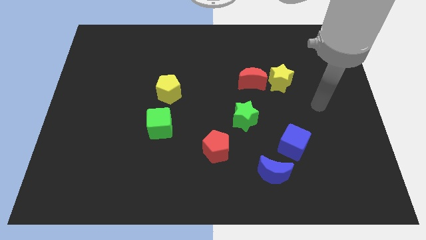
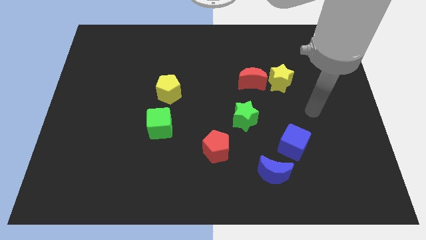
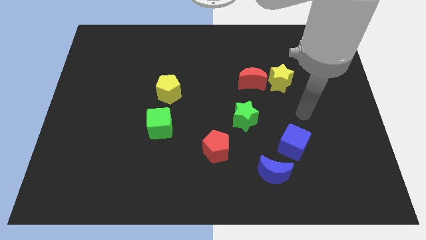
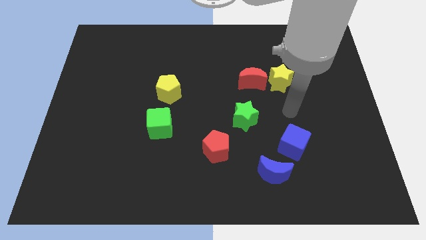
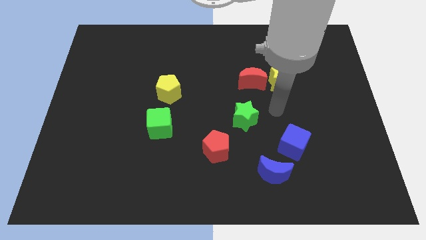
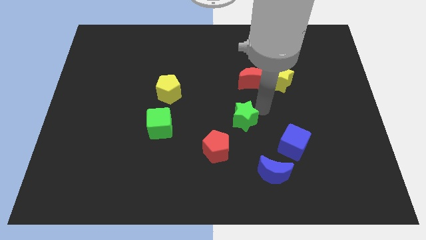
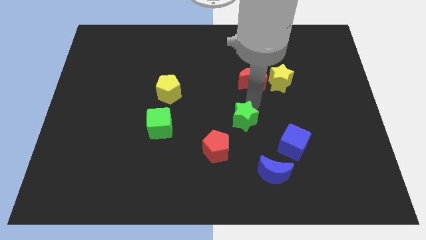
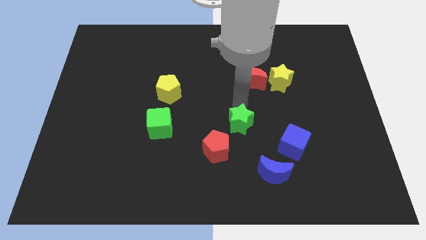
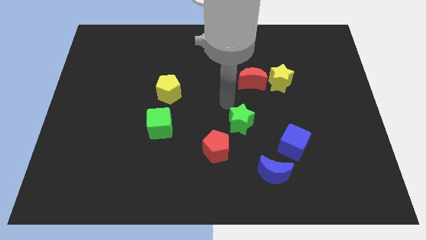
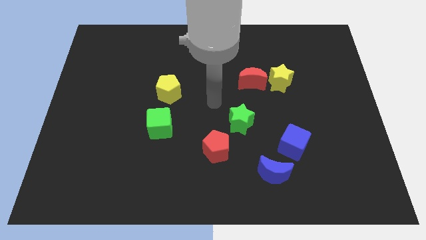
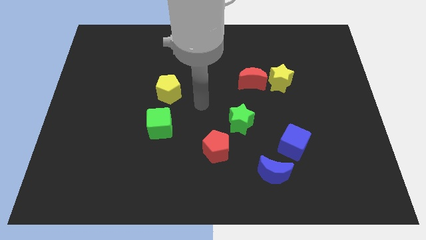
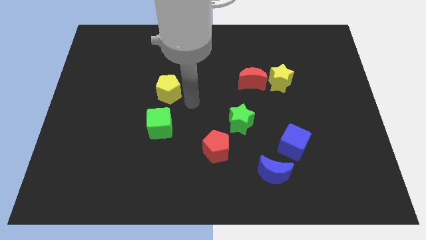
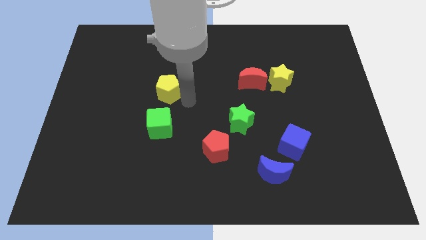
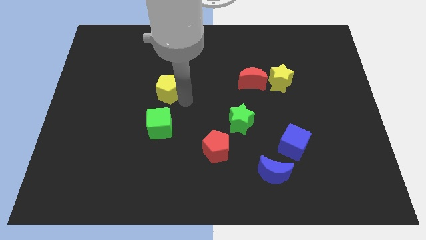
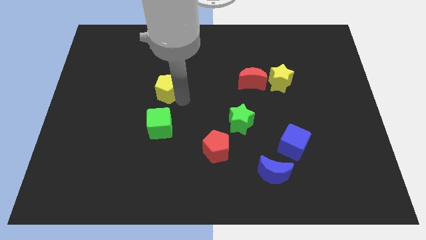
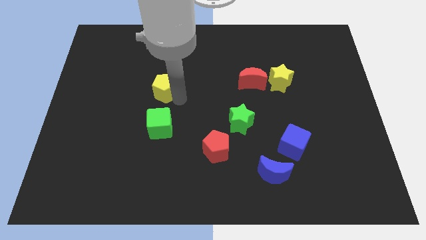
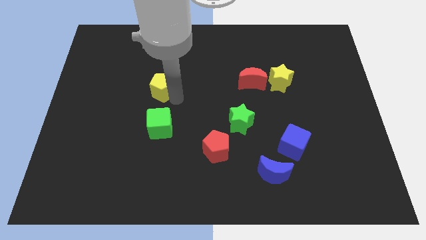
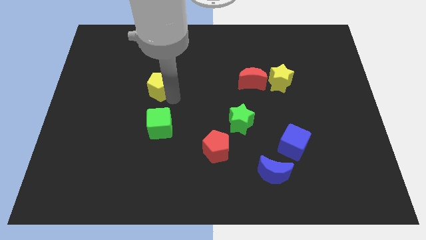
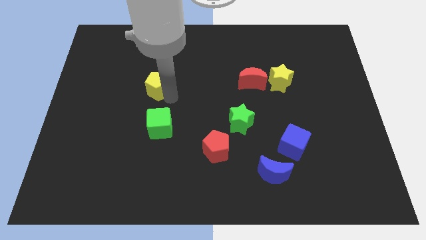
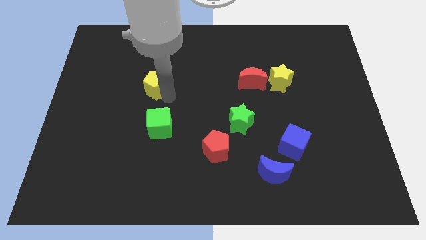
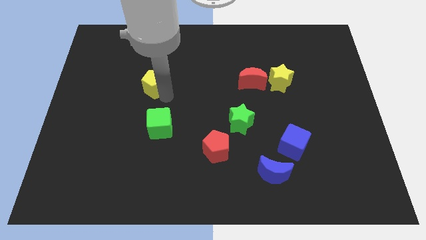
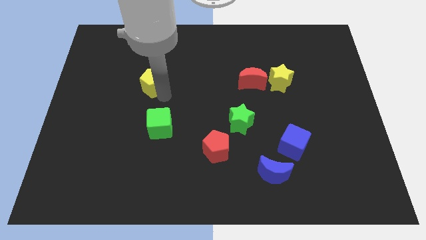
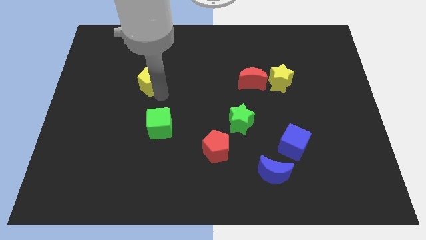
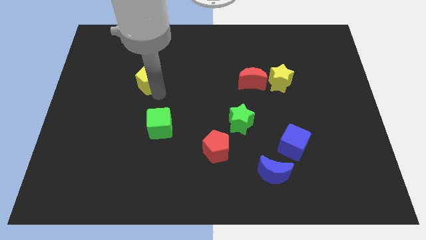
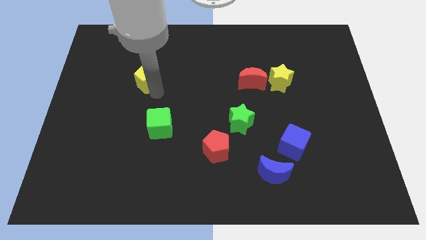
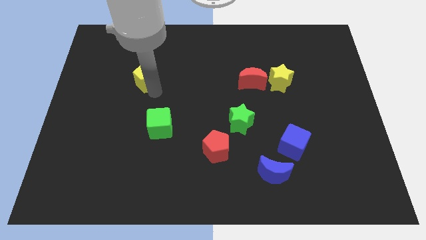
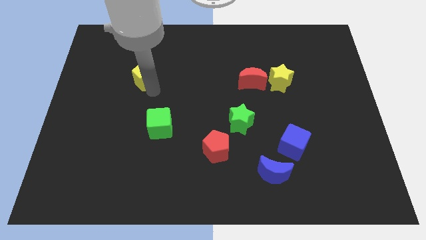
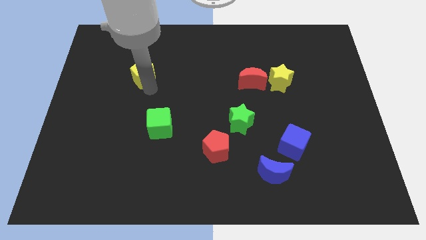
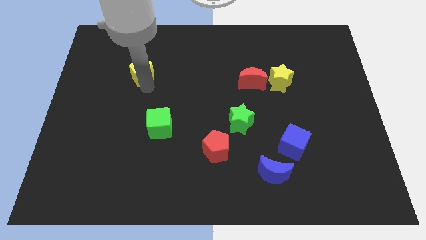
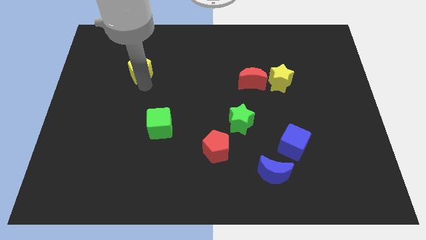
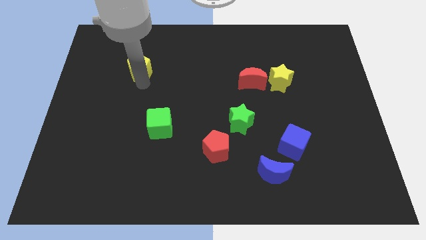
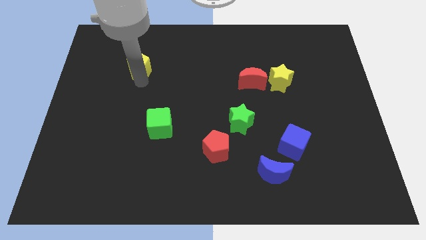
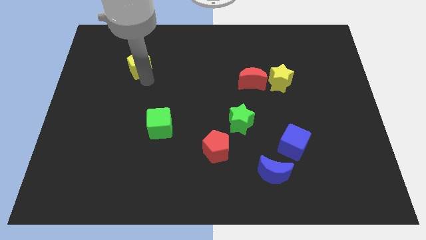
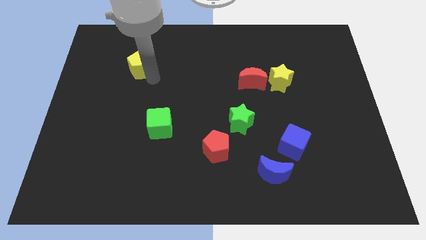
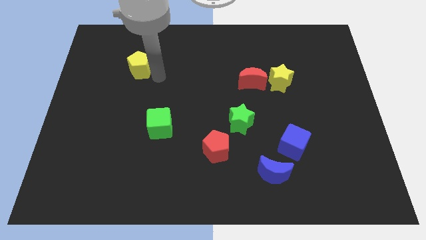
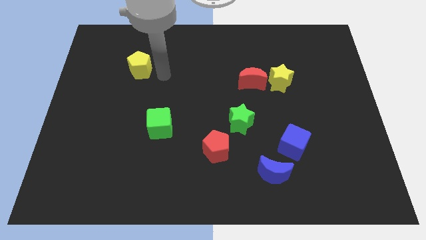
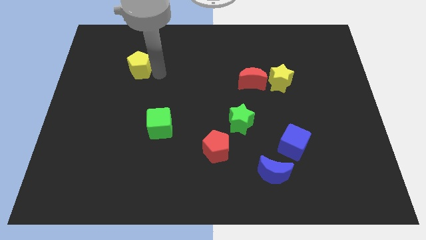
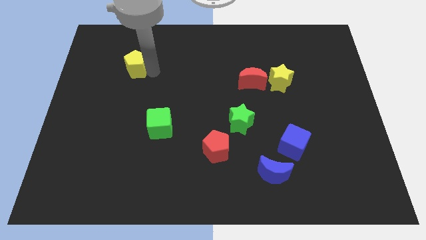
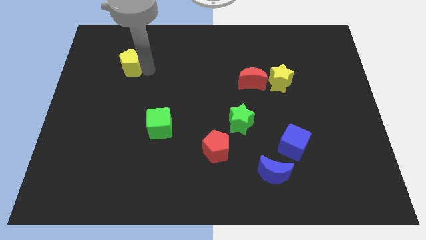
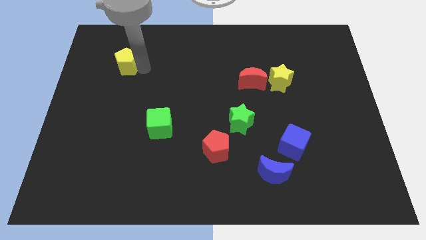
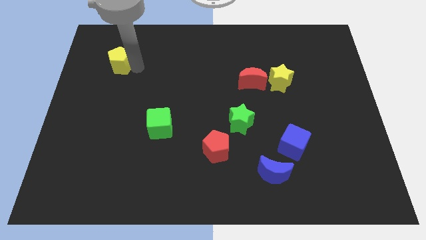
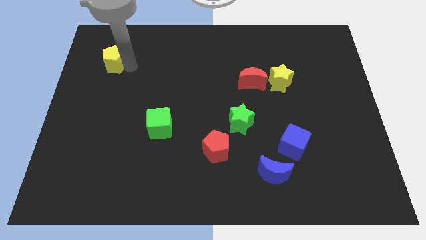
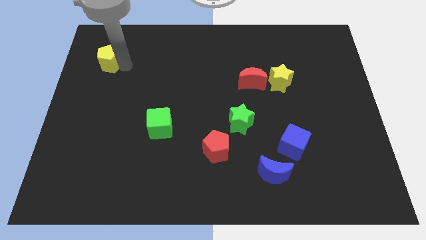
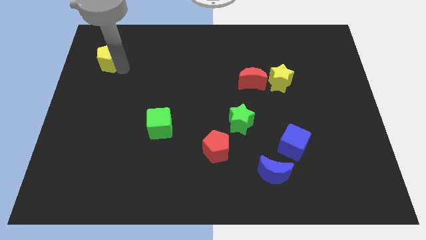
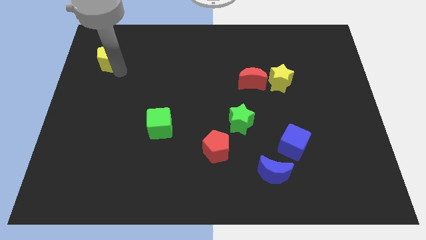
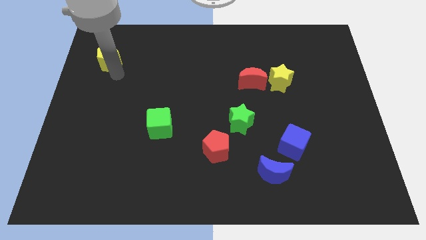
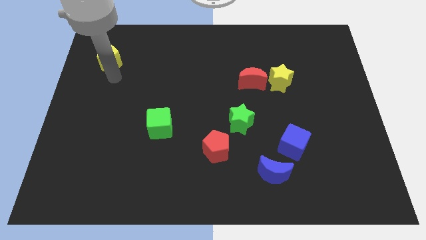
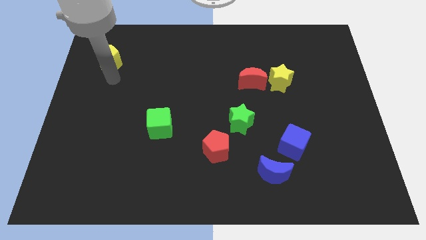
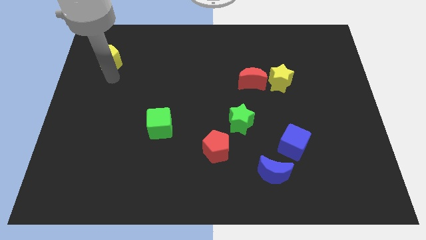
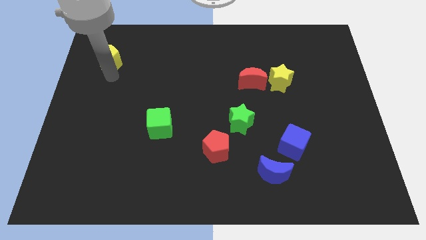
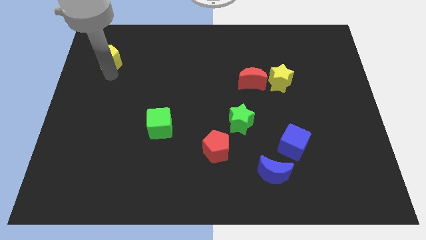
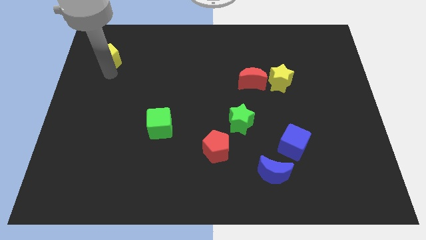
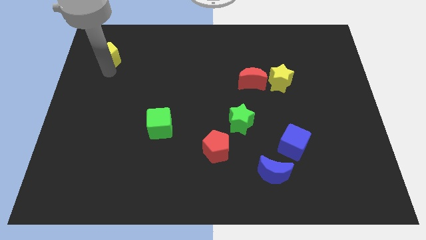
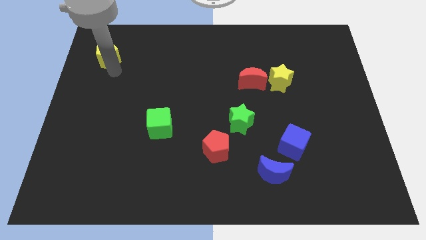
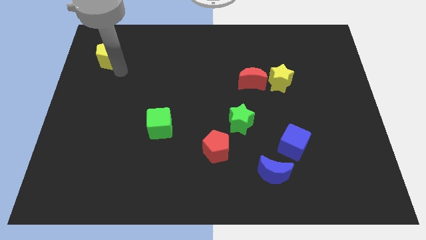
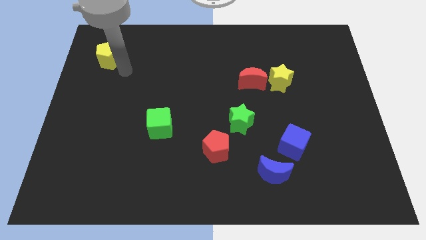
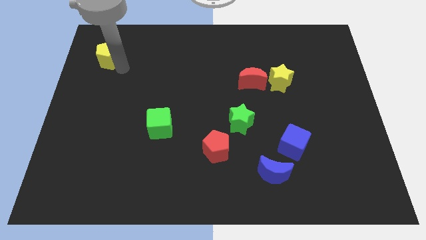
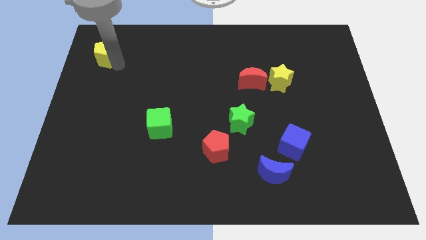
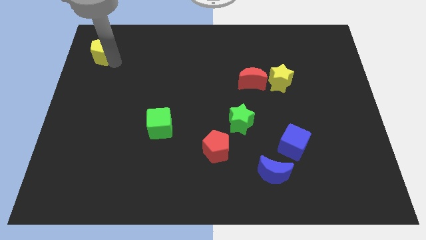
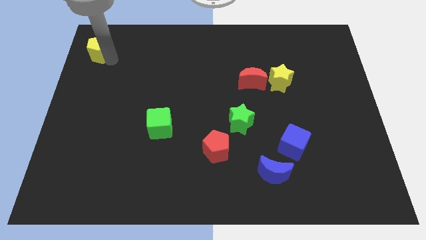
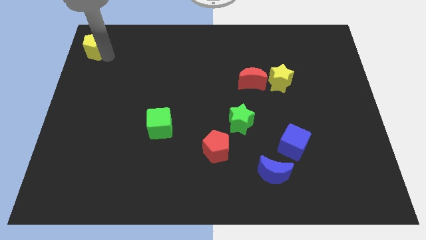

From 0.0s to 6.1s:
slide the yellow pentagon to the top left corner

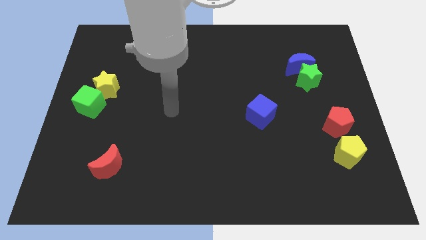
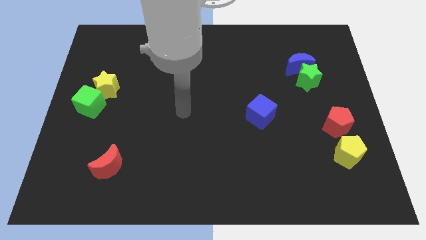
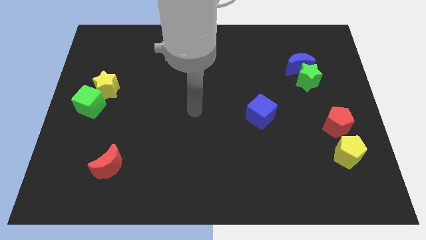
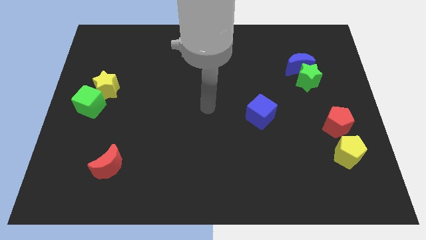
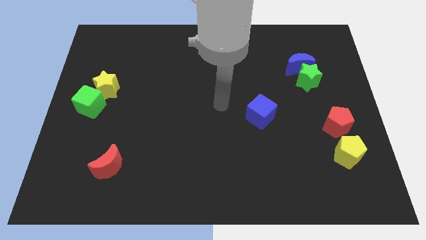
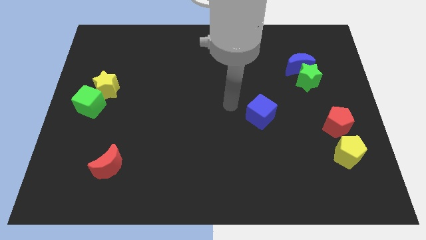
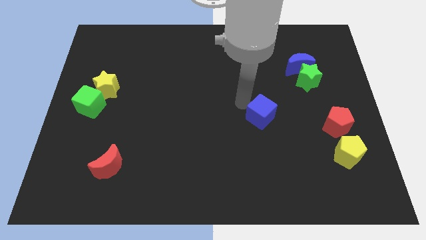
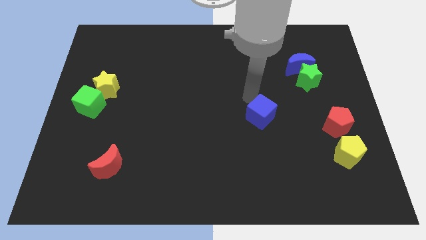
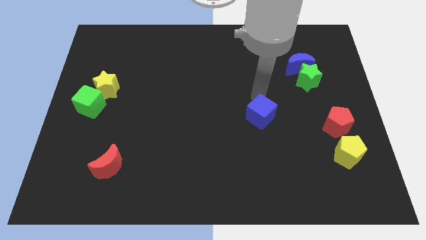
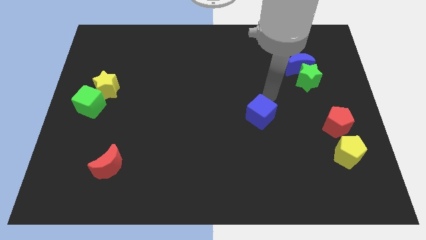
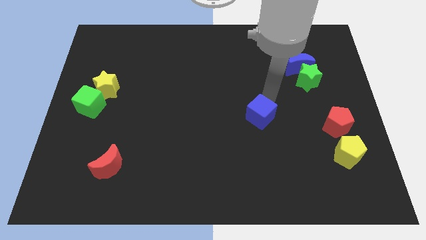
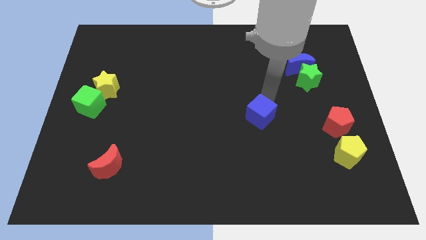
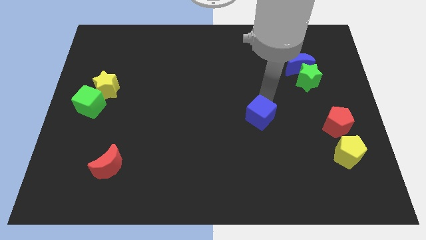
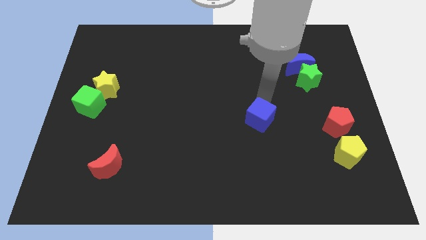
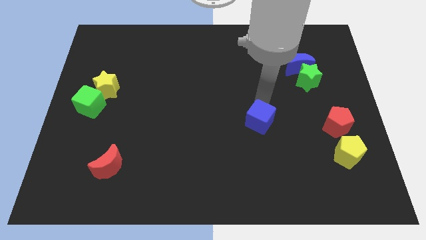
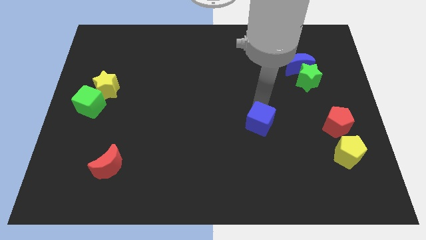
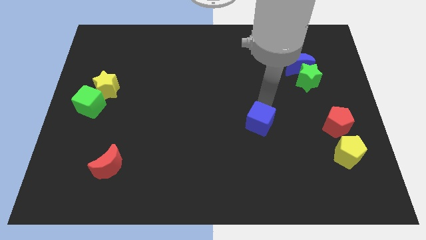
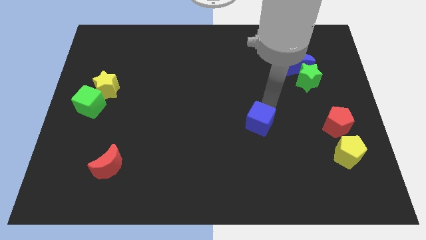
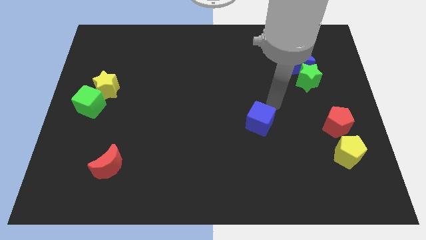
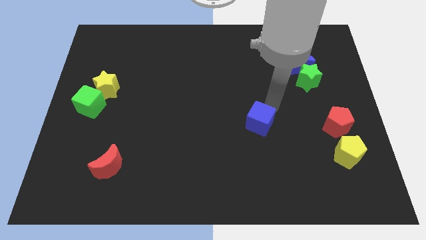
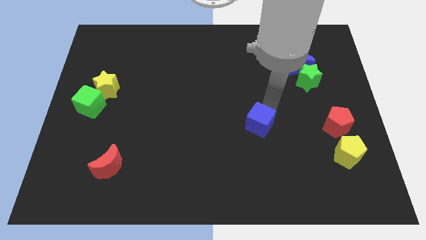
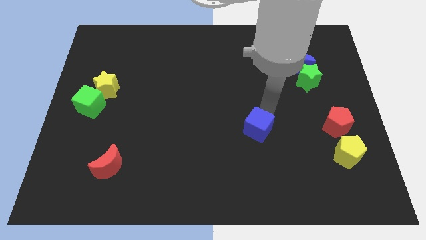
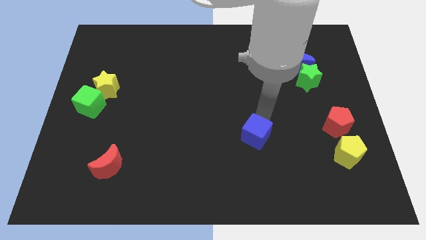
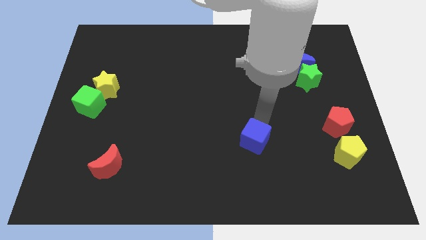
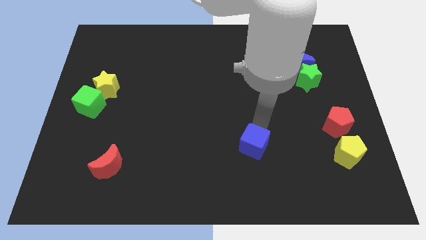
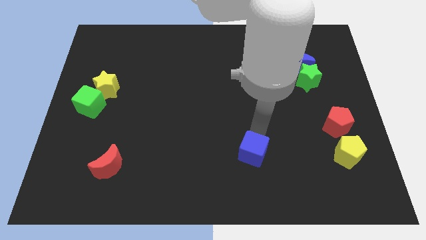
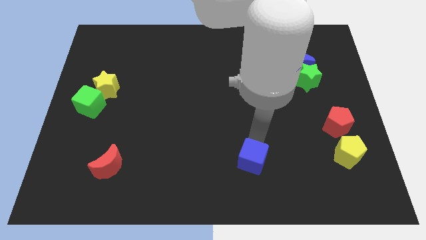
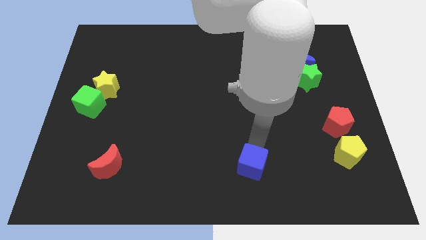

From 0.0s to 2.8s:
move the blue cube to the bottom
